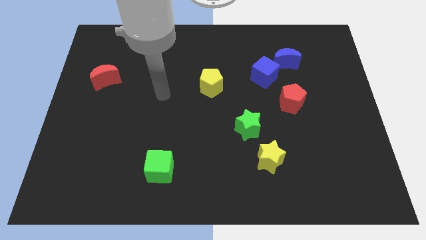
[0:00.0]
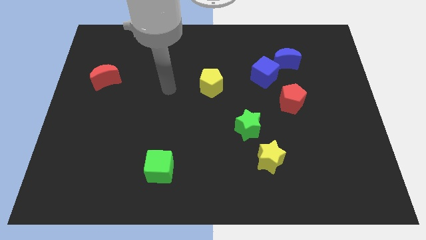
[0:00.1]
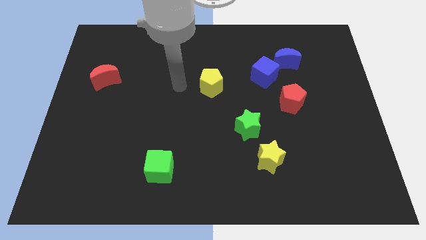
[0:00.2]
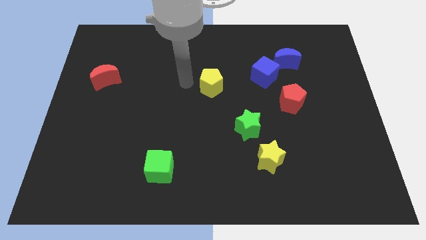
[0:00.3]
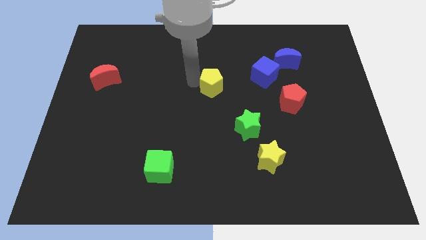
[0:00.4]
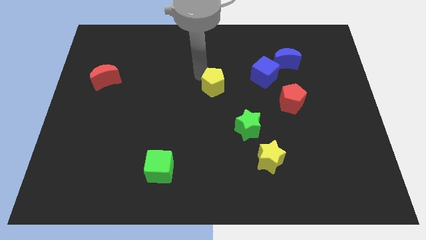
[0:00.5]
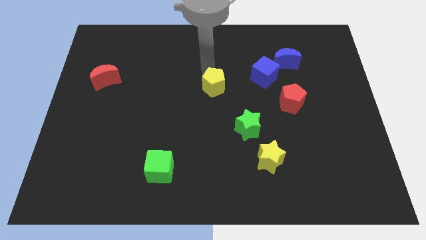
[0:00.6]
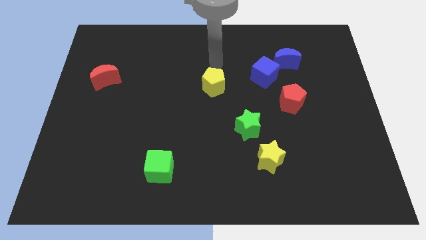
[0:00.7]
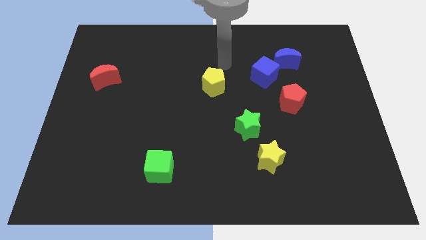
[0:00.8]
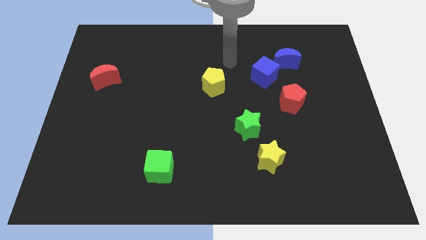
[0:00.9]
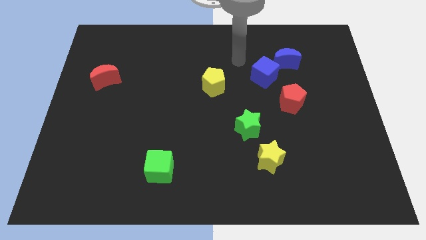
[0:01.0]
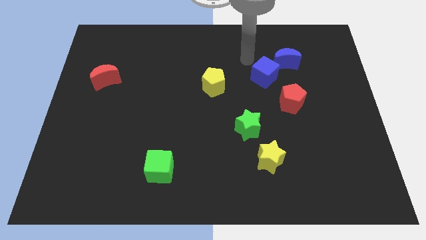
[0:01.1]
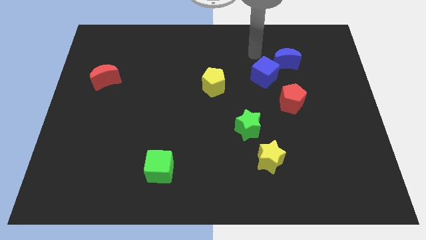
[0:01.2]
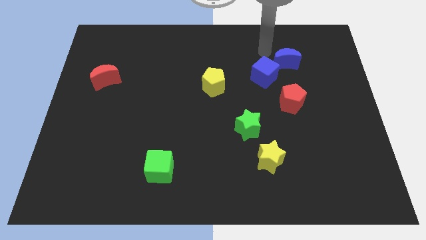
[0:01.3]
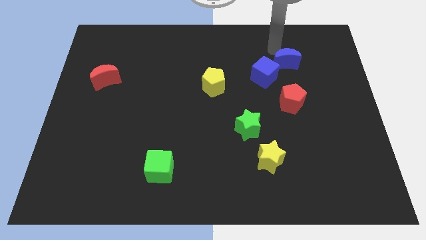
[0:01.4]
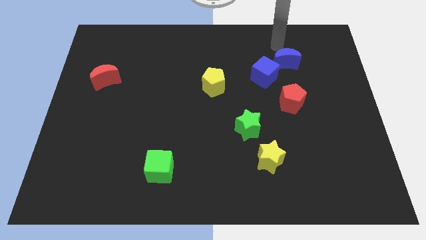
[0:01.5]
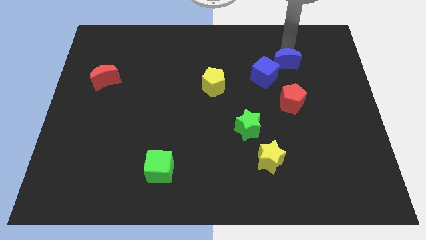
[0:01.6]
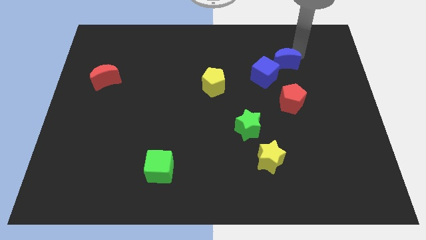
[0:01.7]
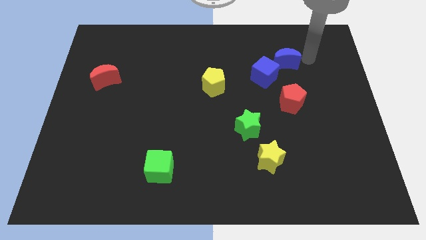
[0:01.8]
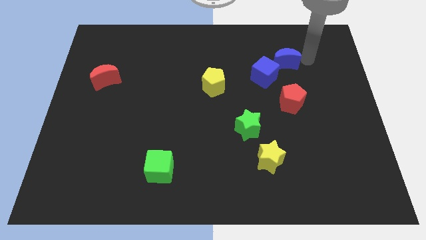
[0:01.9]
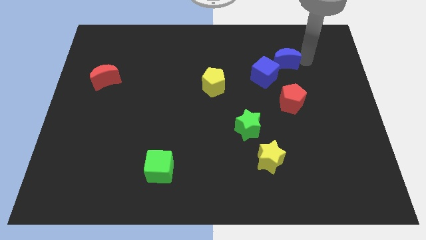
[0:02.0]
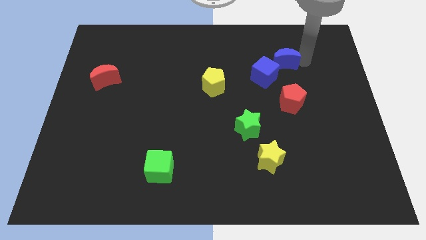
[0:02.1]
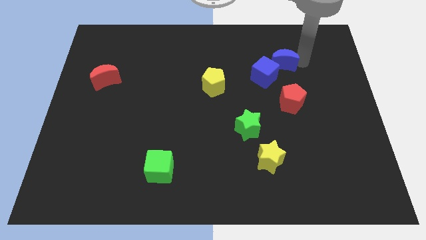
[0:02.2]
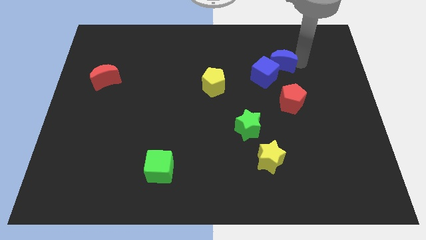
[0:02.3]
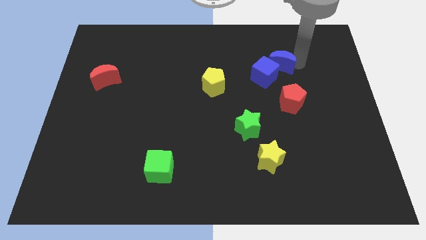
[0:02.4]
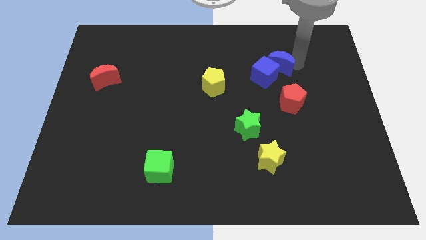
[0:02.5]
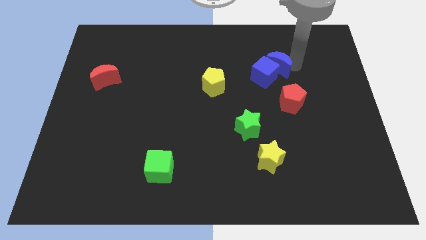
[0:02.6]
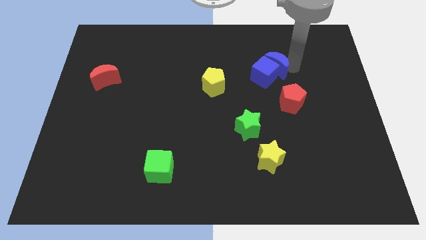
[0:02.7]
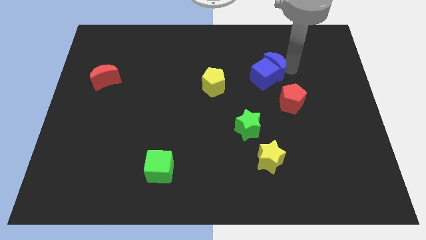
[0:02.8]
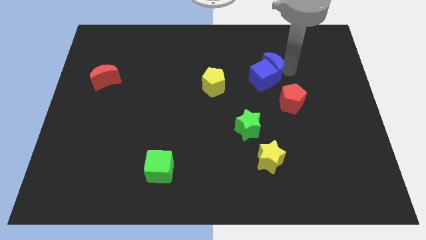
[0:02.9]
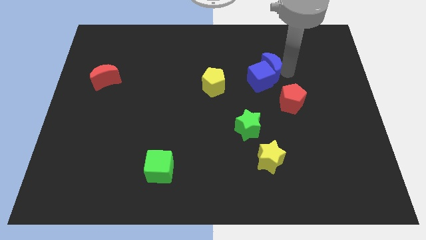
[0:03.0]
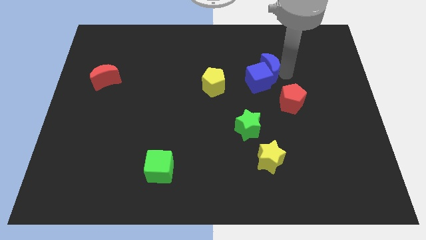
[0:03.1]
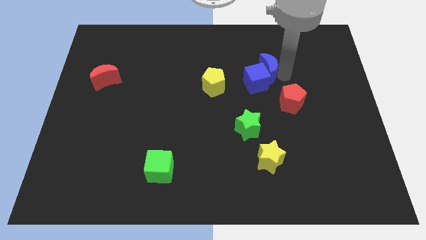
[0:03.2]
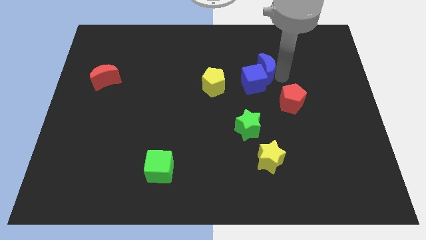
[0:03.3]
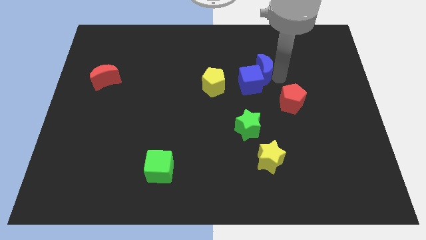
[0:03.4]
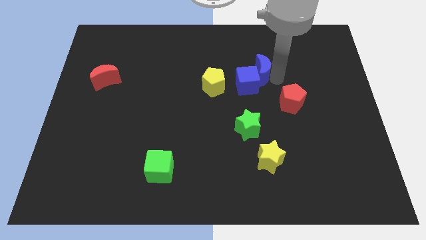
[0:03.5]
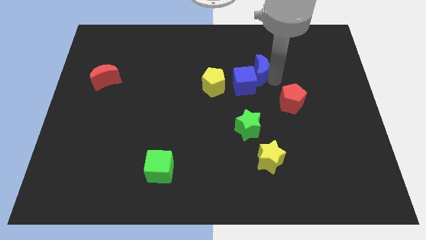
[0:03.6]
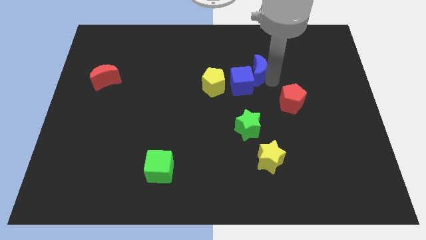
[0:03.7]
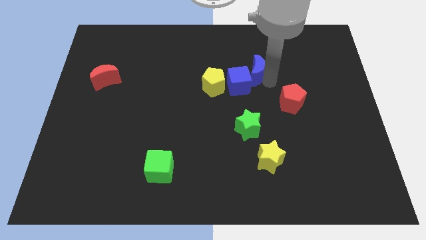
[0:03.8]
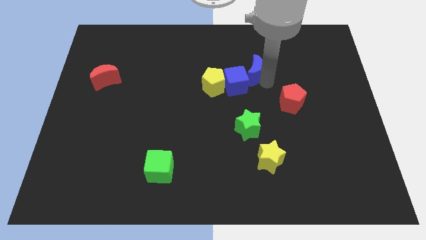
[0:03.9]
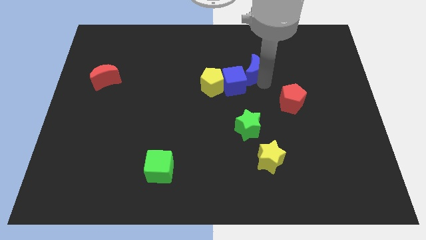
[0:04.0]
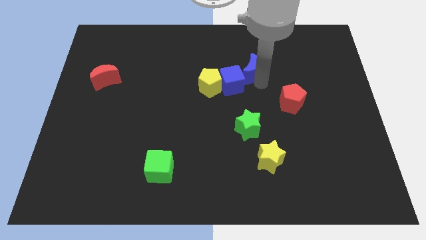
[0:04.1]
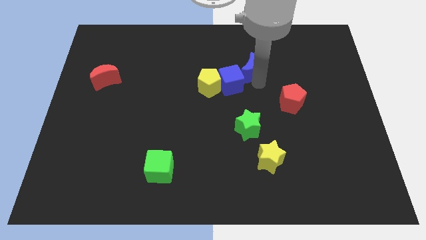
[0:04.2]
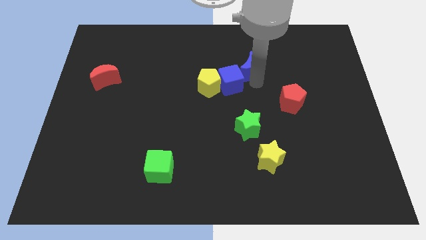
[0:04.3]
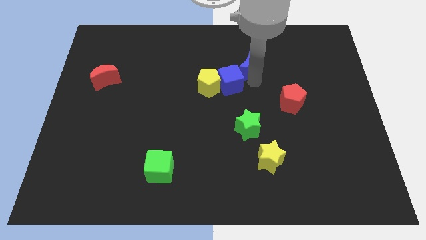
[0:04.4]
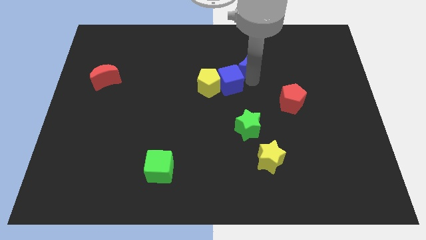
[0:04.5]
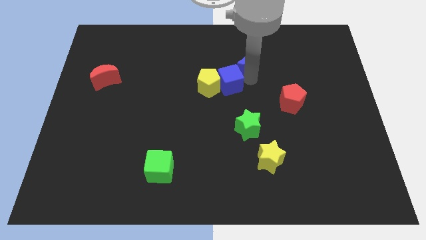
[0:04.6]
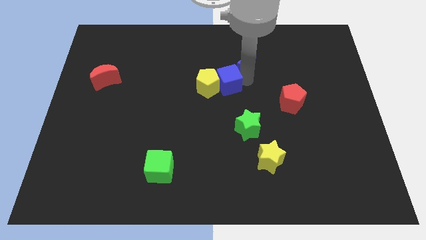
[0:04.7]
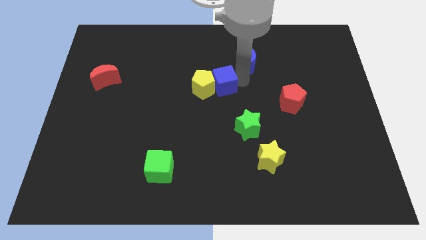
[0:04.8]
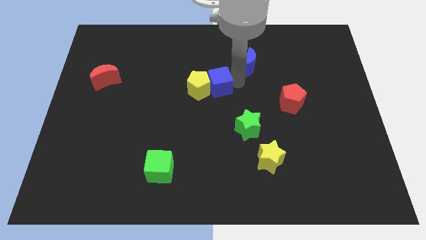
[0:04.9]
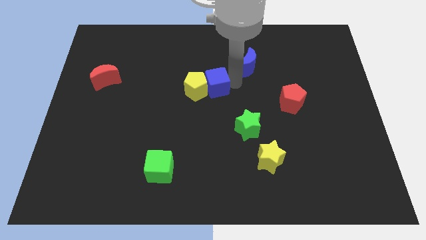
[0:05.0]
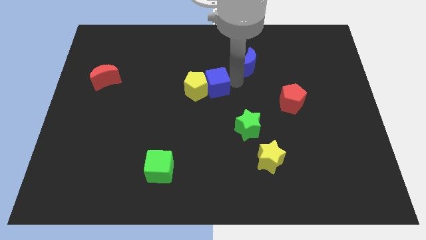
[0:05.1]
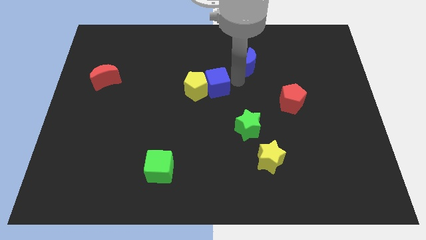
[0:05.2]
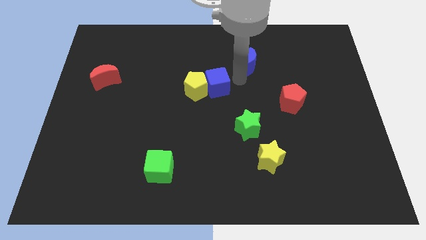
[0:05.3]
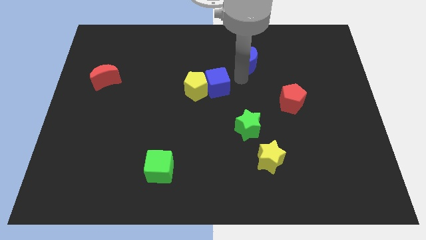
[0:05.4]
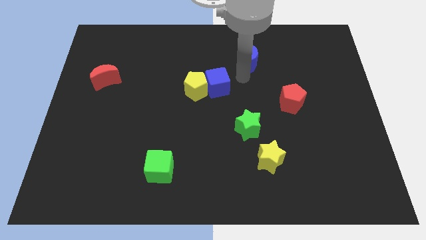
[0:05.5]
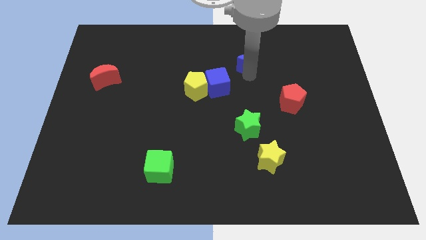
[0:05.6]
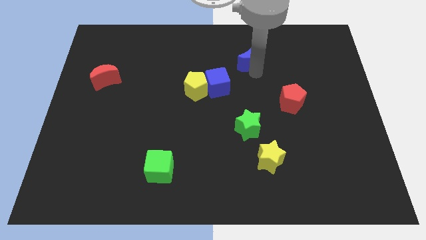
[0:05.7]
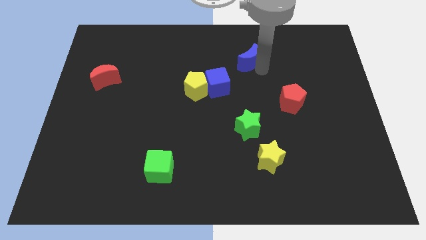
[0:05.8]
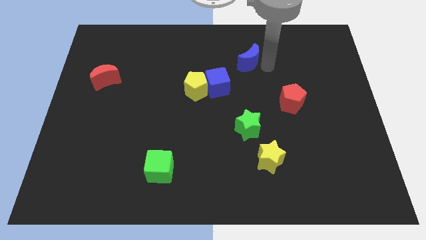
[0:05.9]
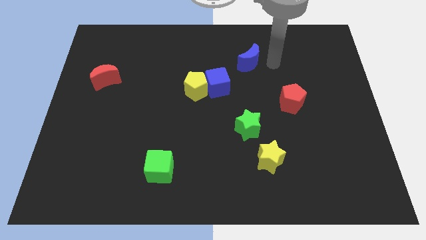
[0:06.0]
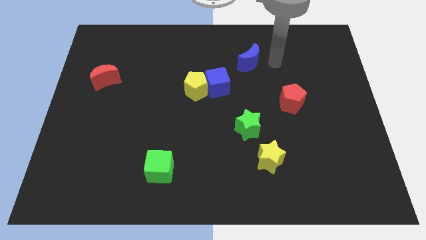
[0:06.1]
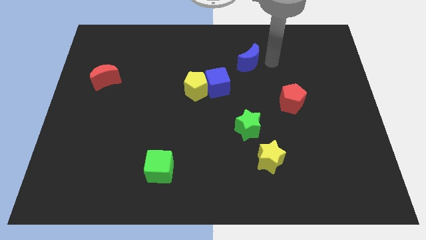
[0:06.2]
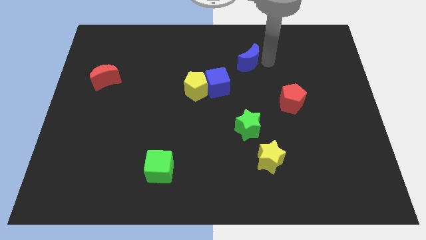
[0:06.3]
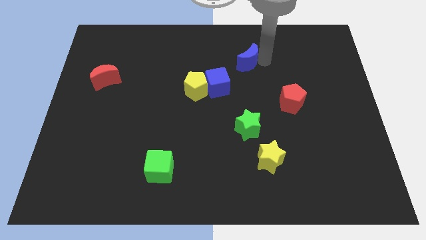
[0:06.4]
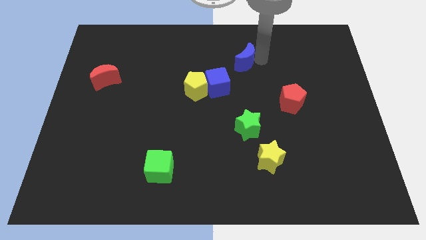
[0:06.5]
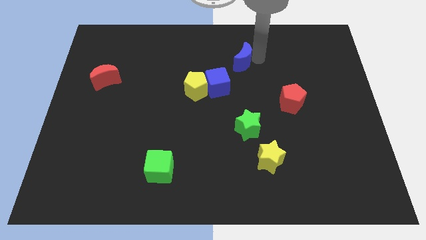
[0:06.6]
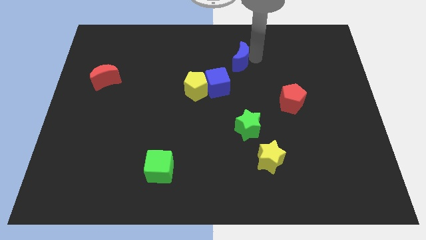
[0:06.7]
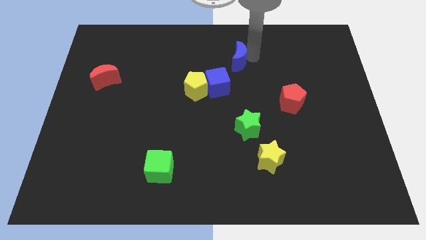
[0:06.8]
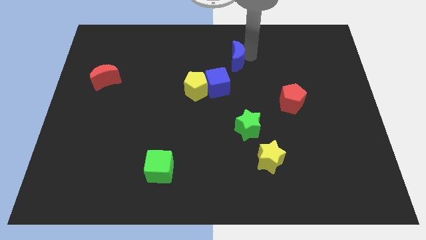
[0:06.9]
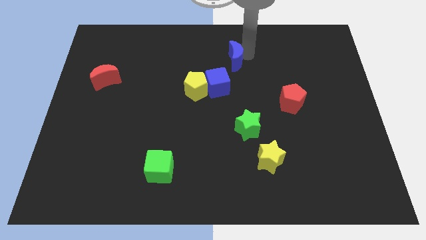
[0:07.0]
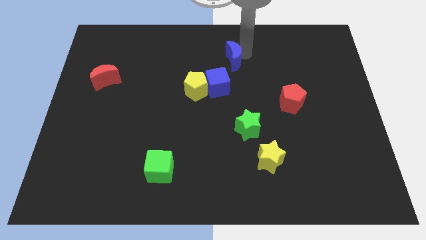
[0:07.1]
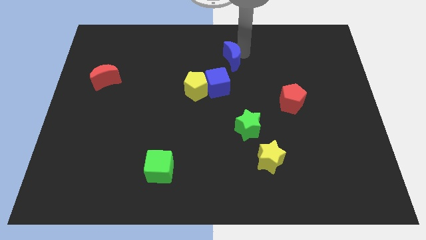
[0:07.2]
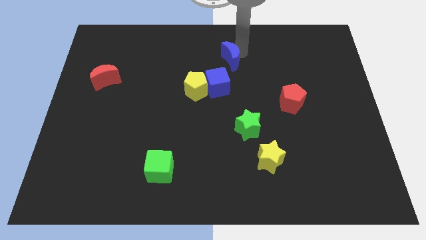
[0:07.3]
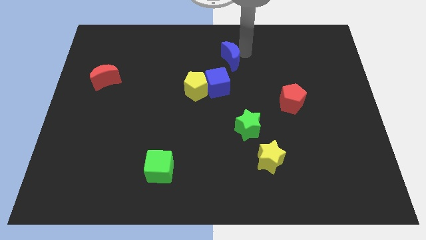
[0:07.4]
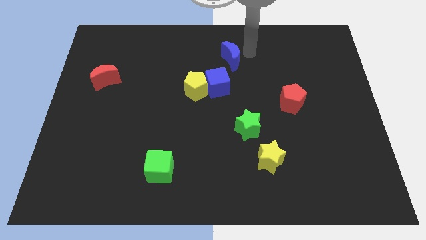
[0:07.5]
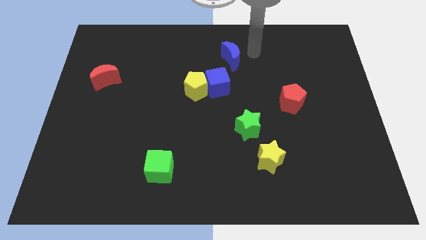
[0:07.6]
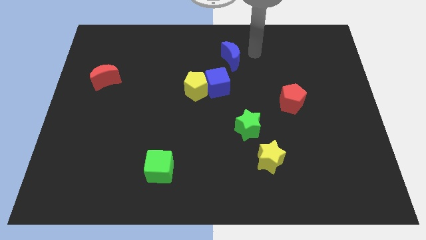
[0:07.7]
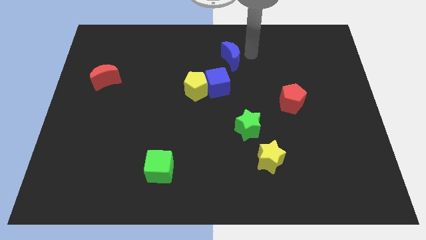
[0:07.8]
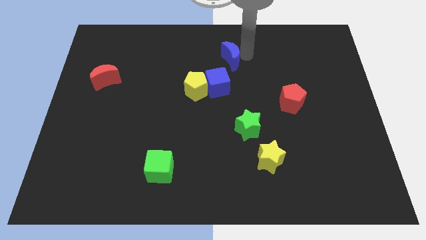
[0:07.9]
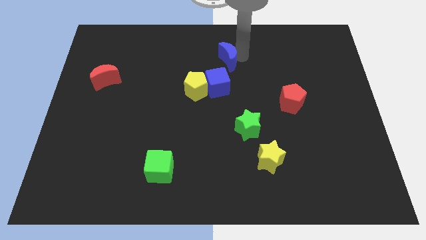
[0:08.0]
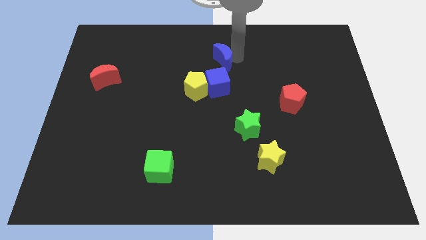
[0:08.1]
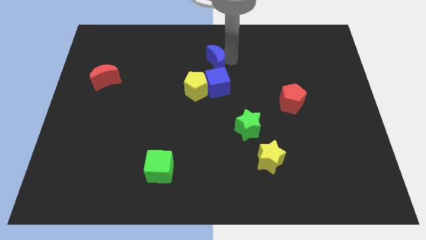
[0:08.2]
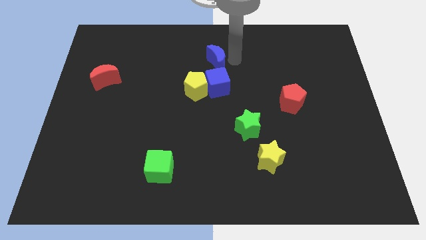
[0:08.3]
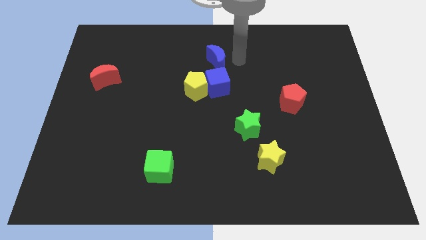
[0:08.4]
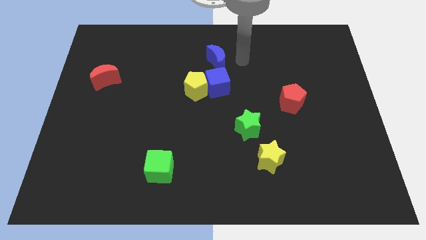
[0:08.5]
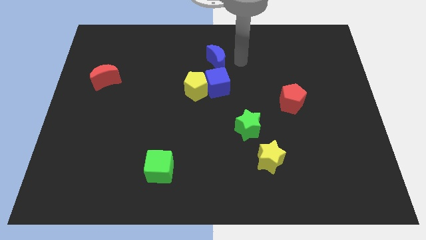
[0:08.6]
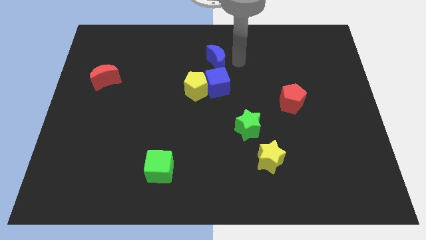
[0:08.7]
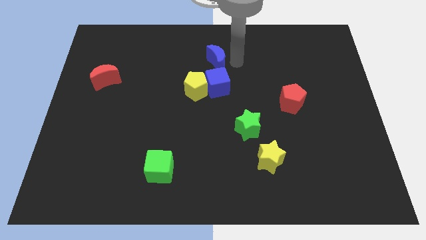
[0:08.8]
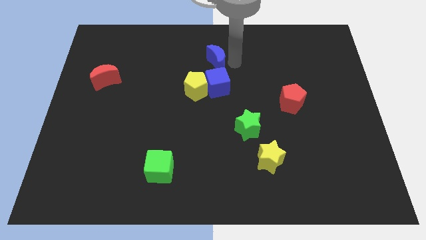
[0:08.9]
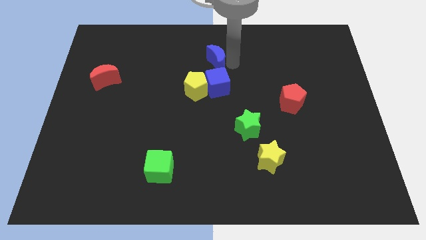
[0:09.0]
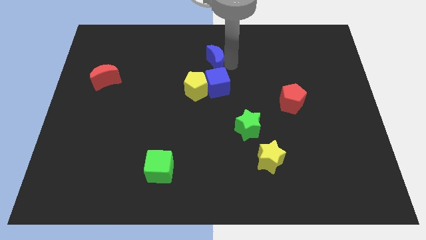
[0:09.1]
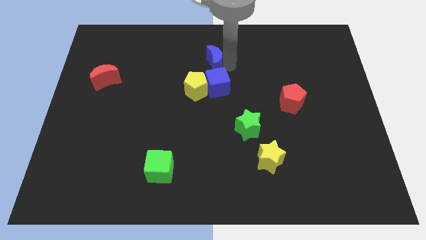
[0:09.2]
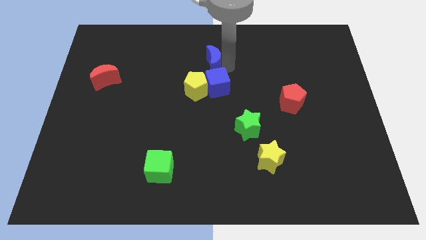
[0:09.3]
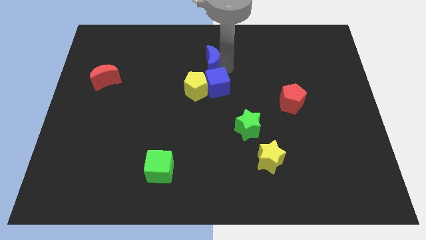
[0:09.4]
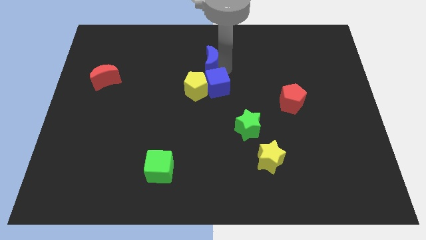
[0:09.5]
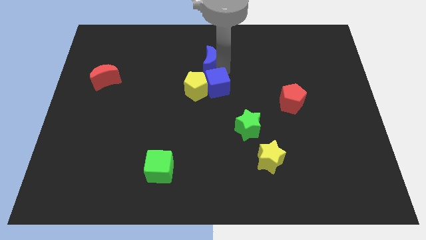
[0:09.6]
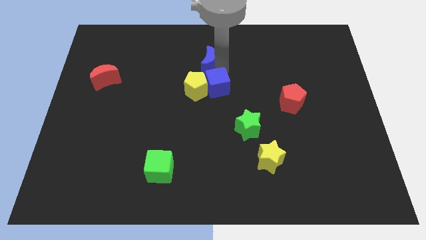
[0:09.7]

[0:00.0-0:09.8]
move the blue moon left
